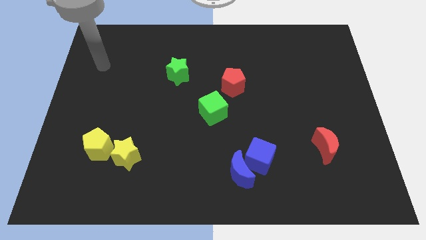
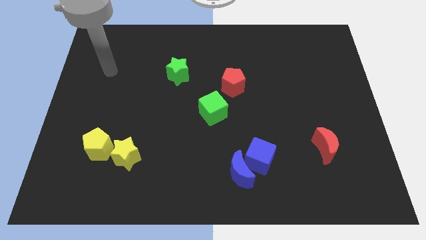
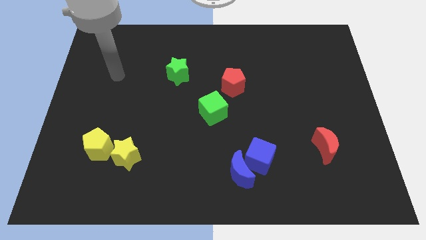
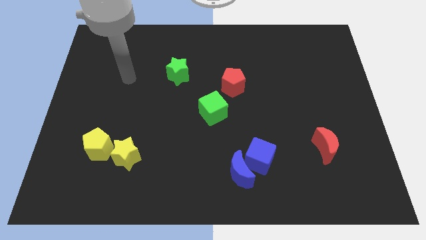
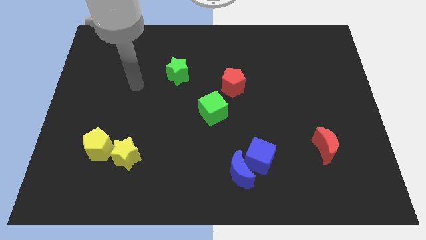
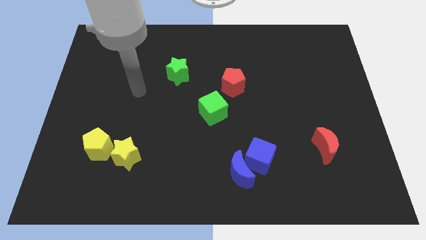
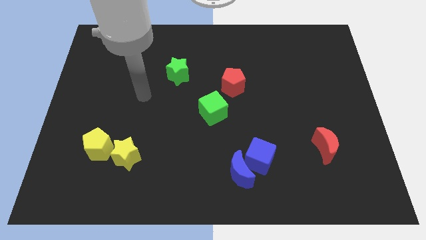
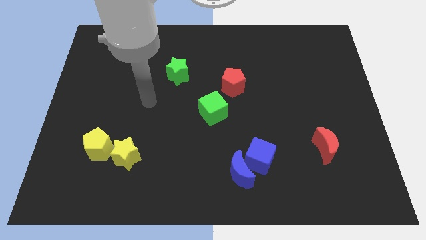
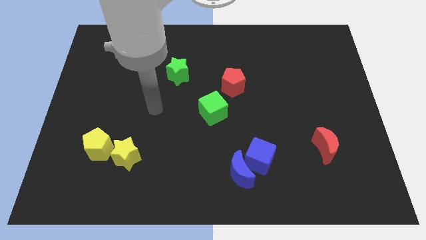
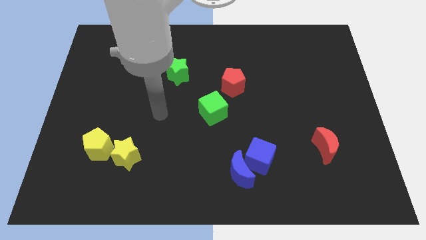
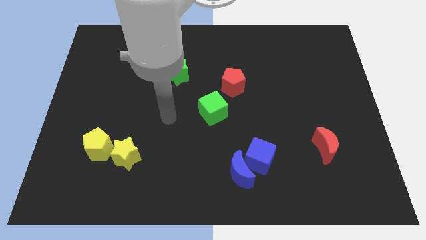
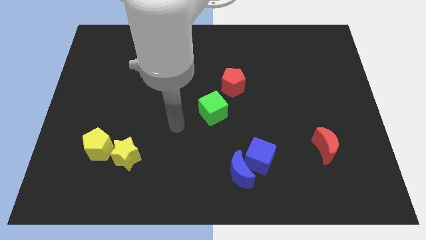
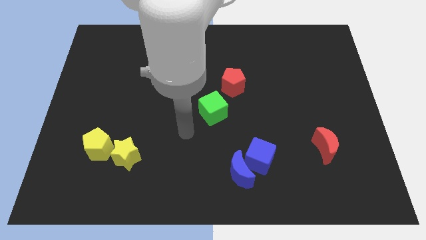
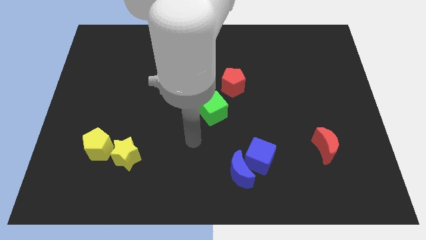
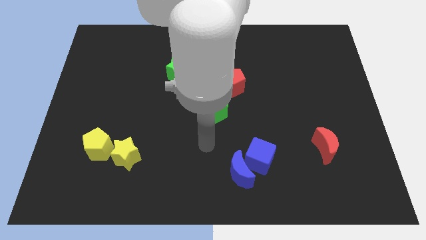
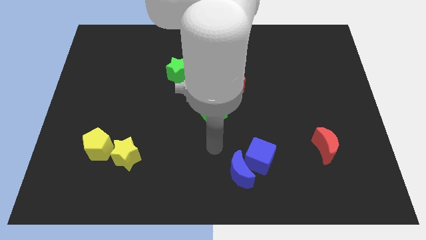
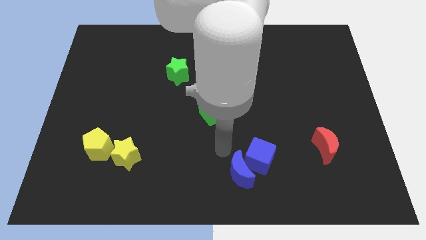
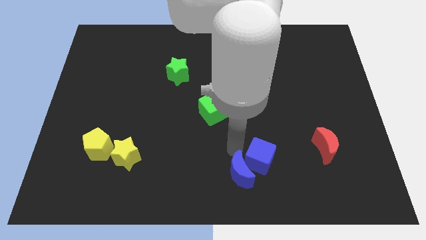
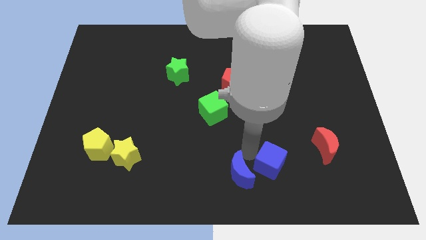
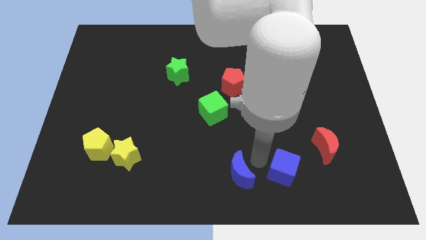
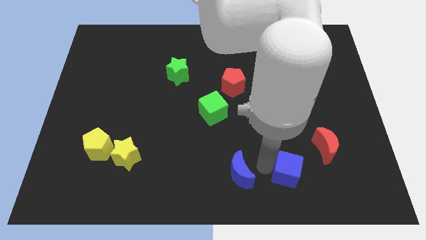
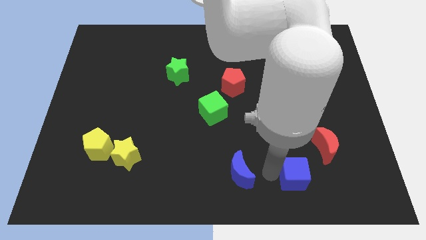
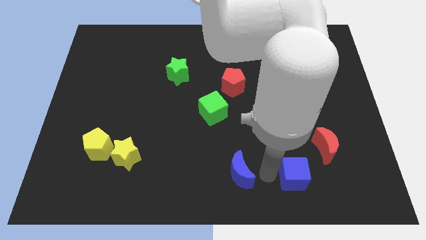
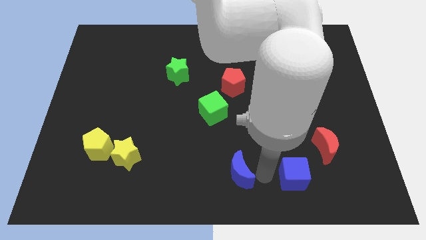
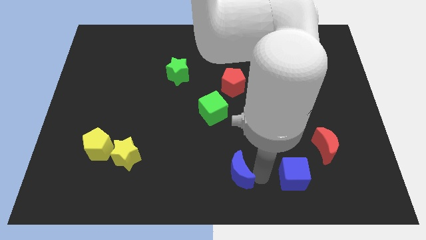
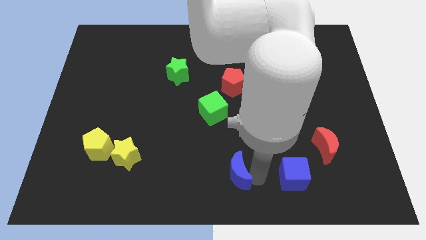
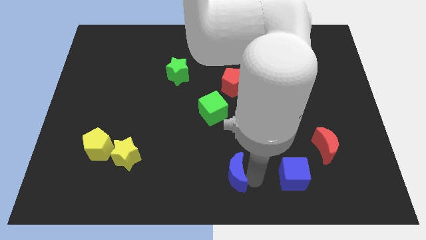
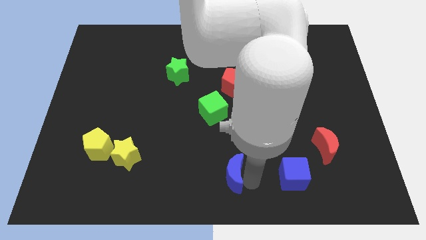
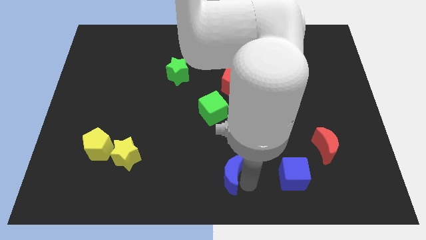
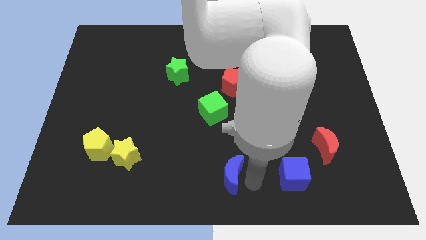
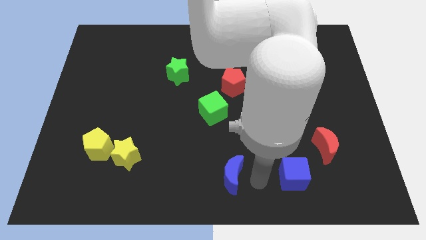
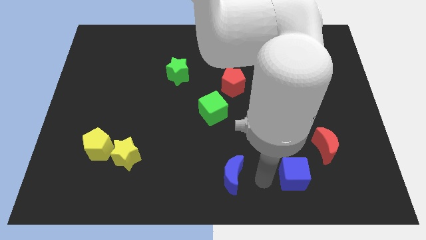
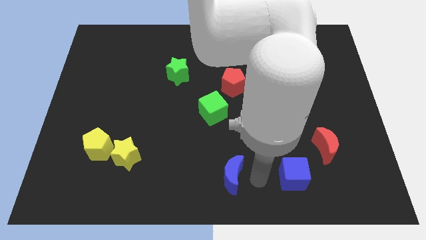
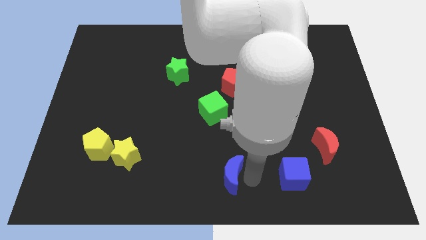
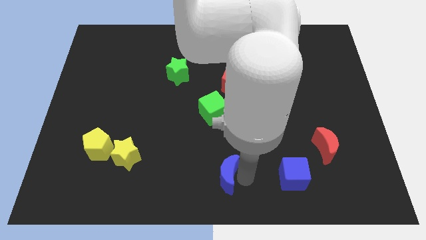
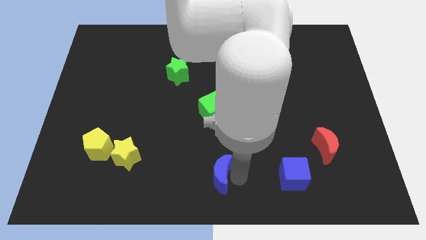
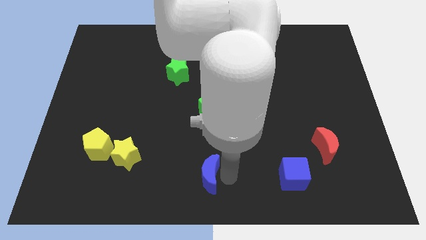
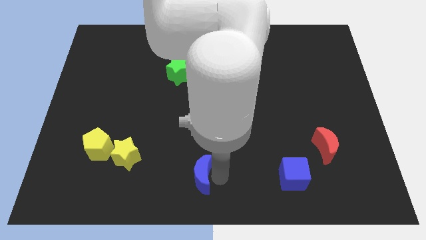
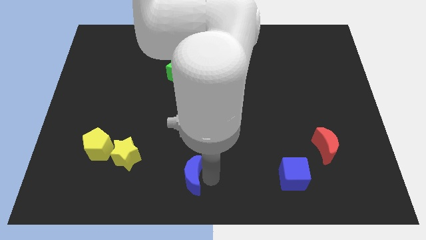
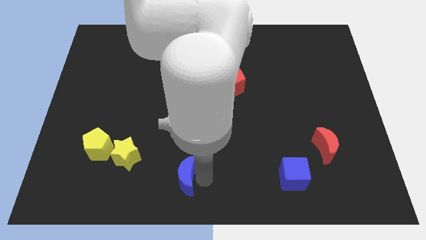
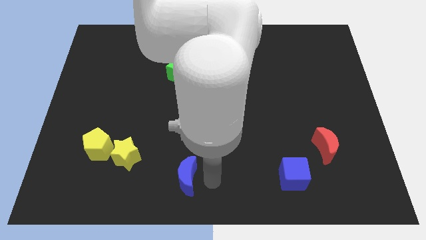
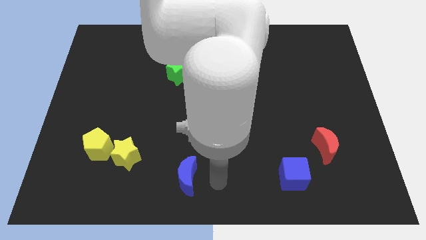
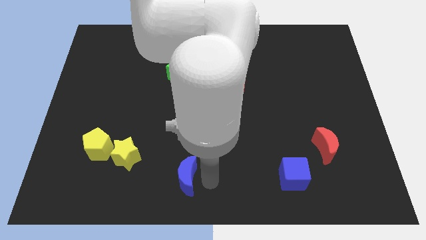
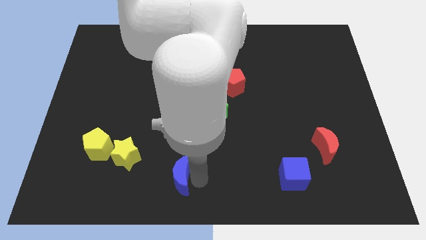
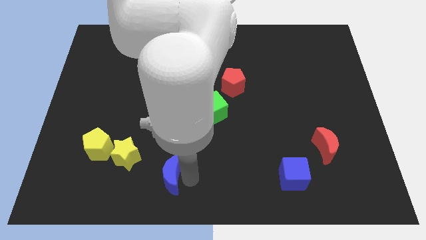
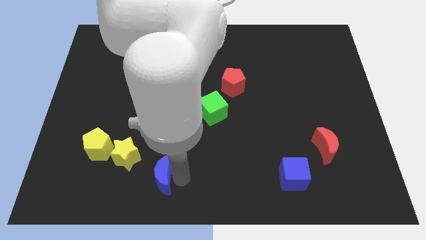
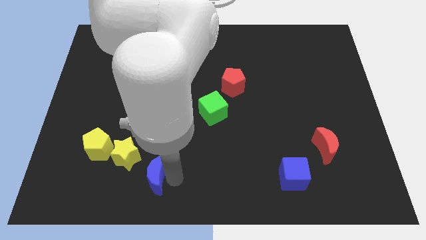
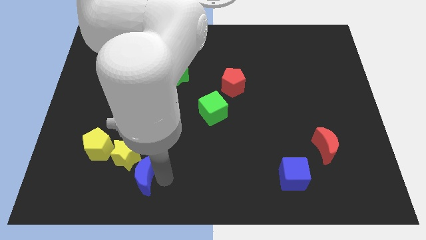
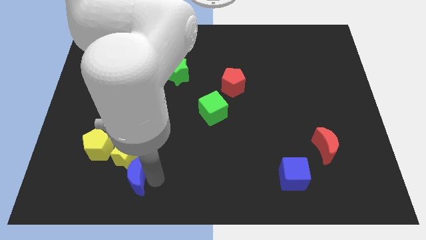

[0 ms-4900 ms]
slide the blue moon diagonally down and to the right of the yellow pentagon

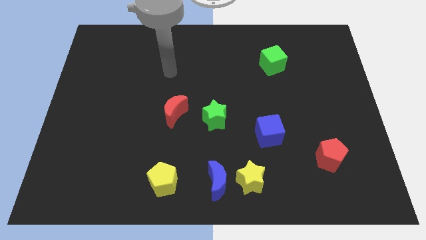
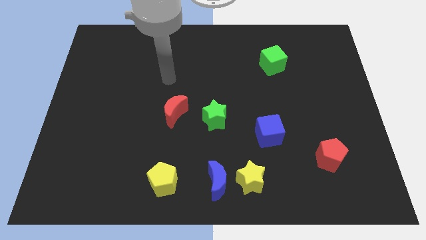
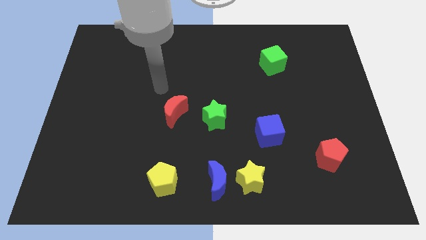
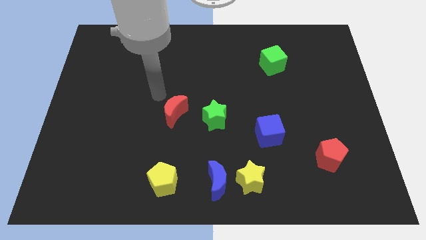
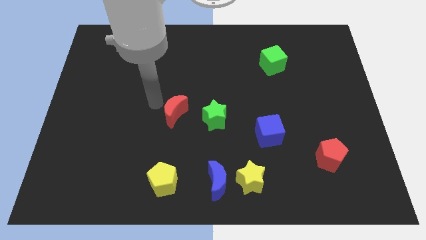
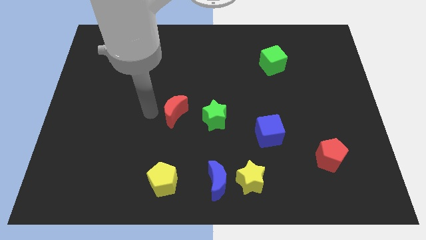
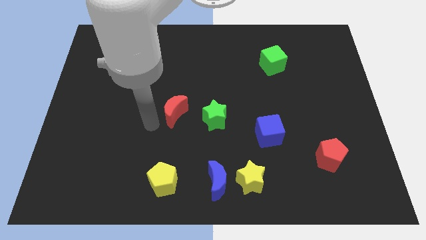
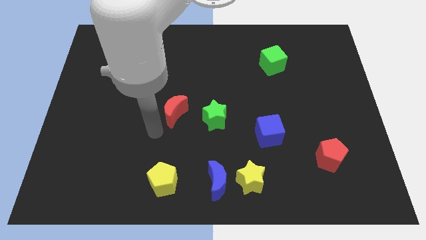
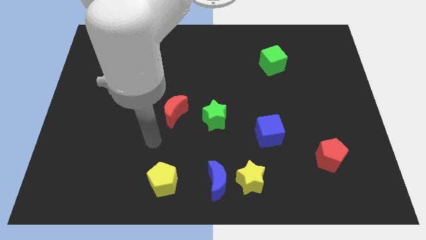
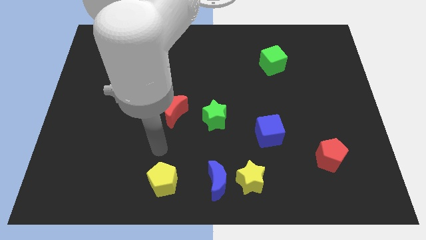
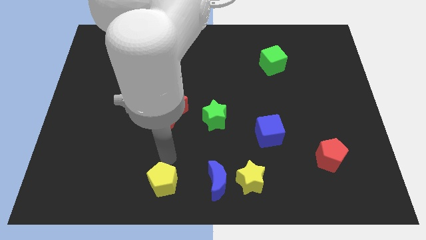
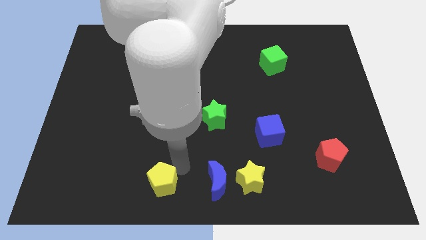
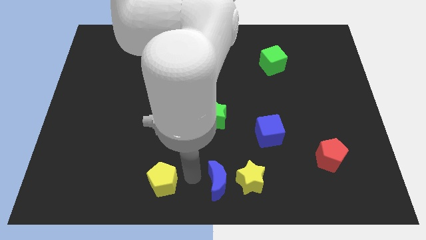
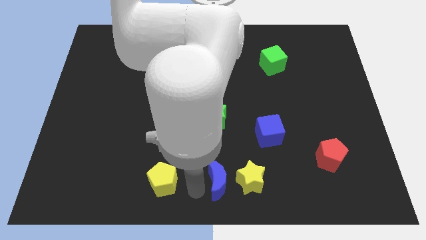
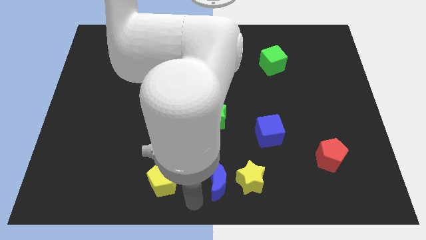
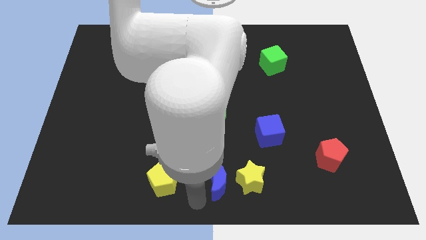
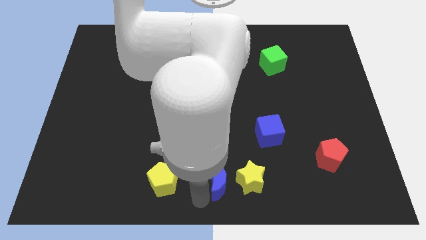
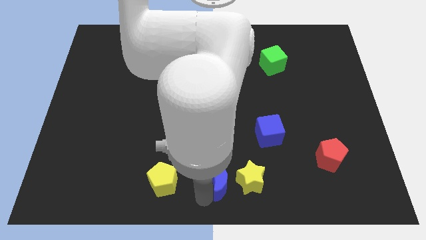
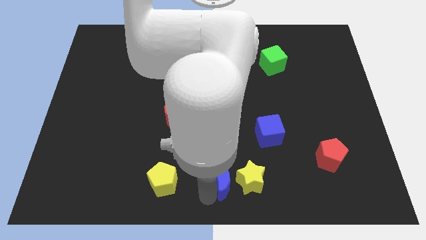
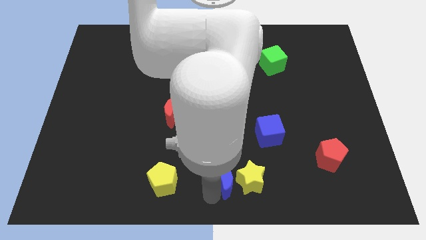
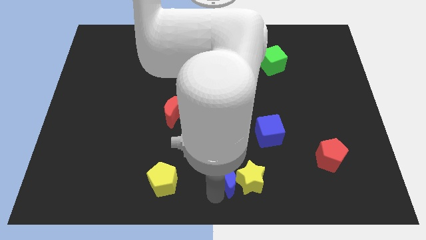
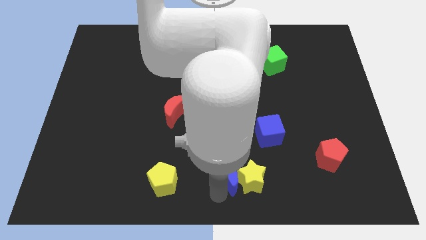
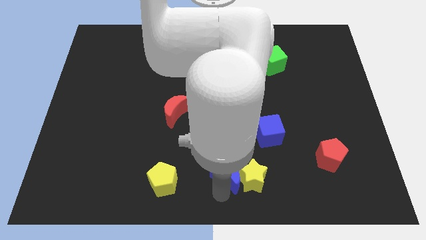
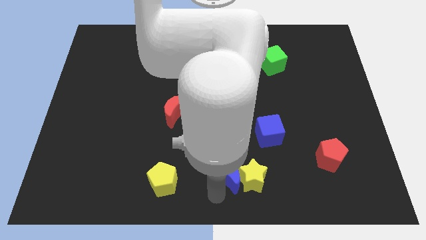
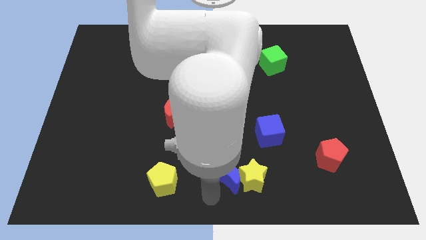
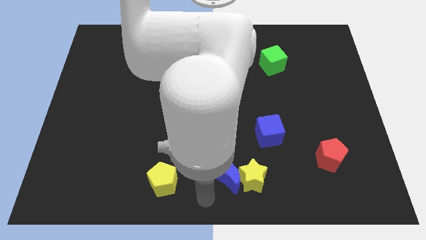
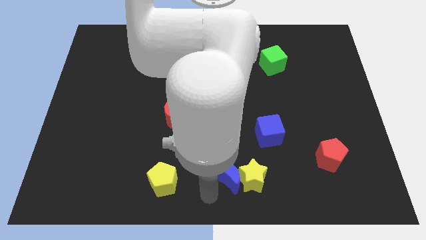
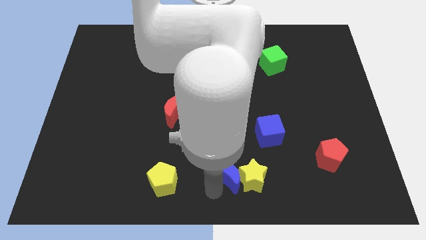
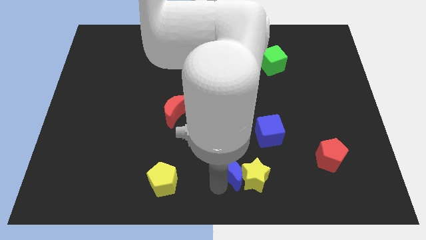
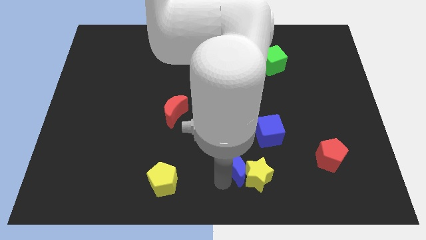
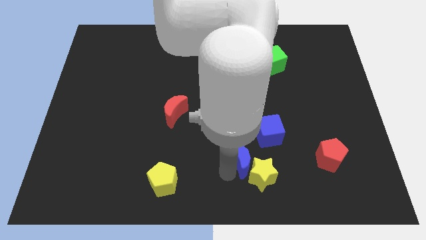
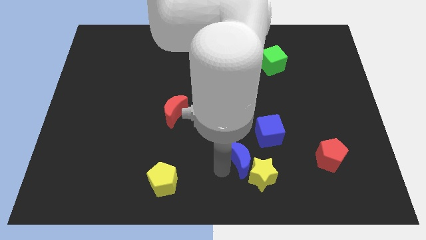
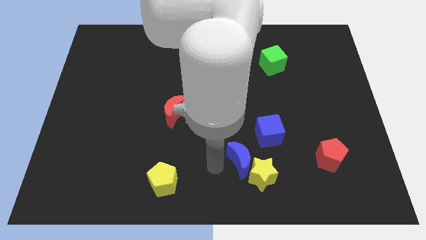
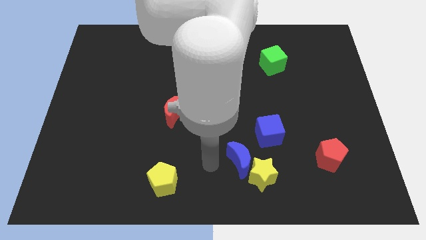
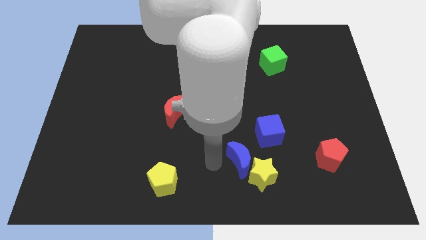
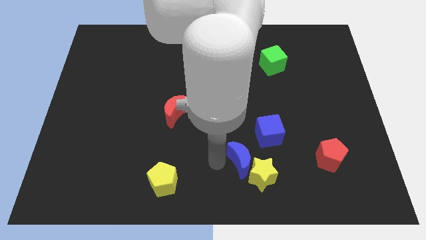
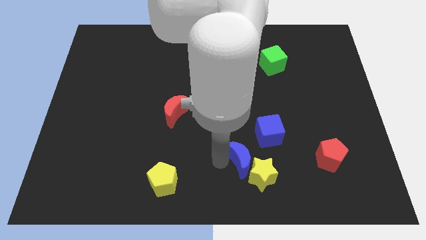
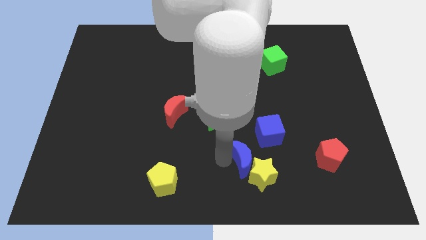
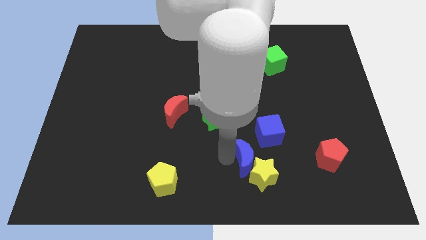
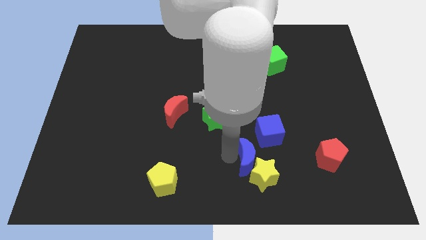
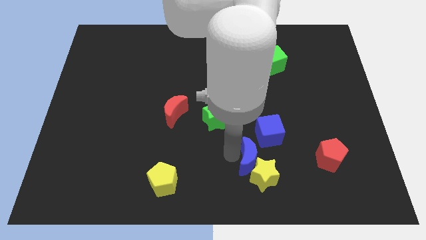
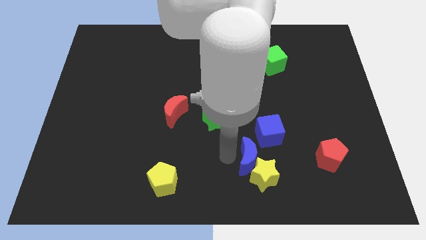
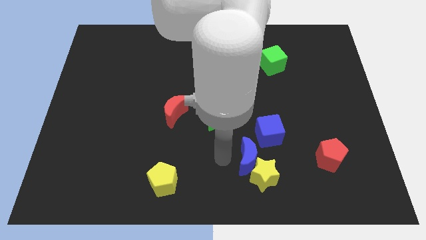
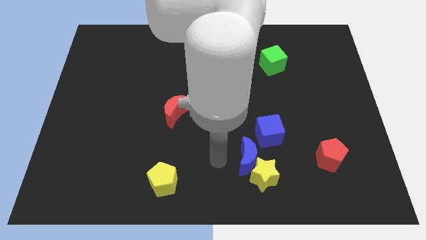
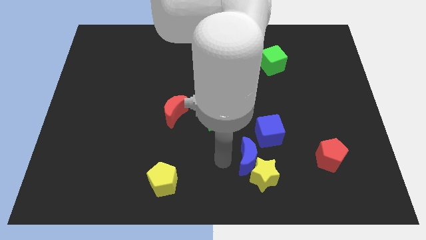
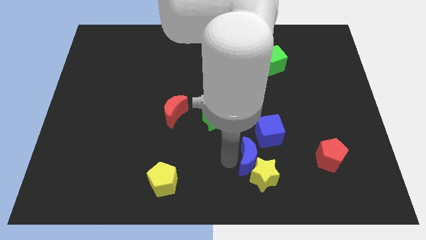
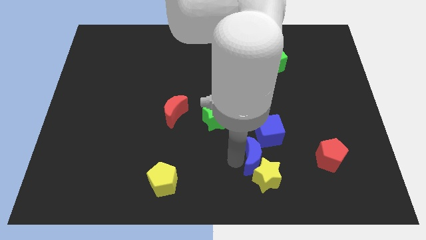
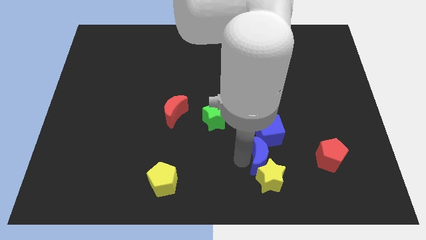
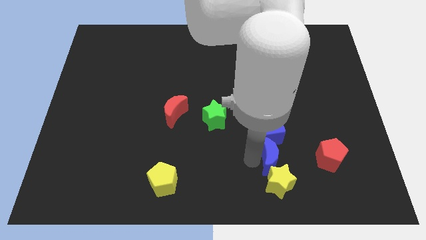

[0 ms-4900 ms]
move the blue moon to the bottom right side of the blue cube
